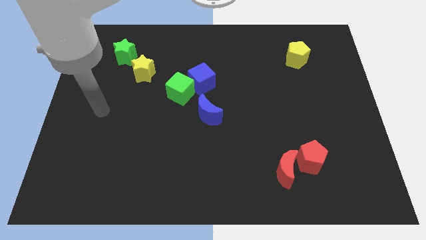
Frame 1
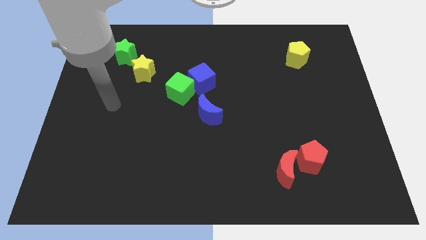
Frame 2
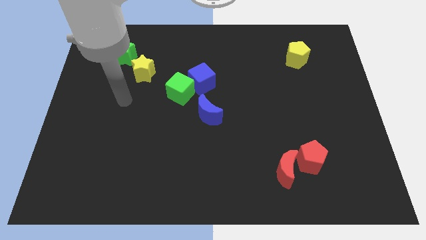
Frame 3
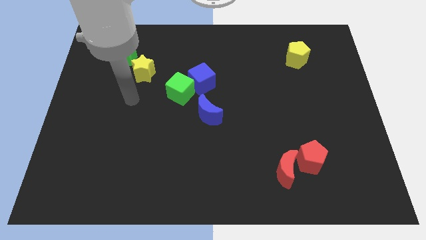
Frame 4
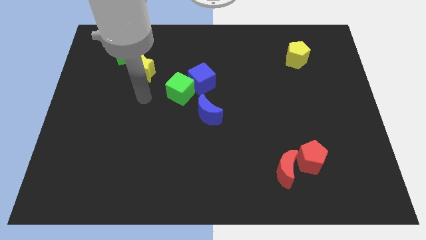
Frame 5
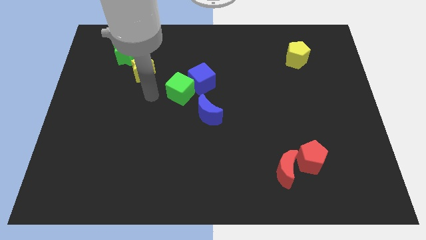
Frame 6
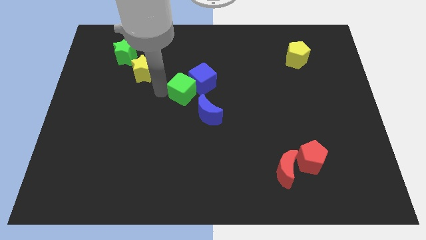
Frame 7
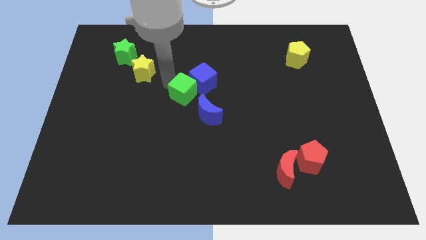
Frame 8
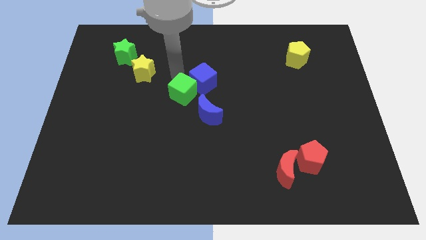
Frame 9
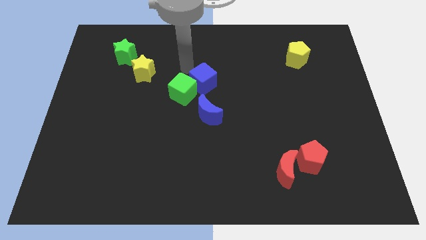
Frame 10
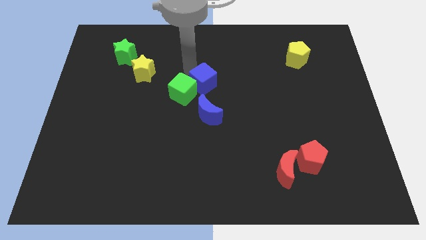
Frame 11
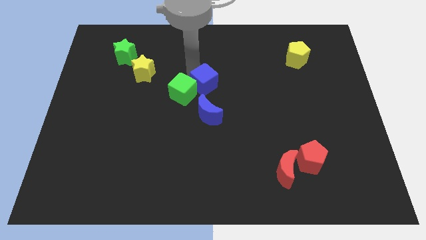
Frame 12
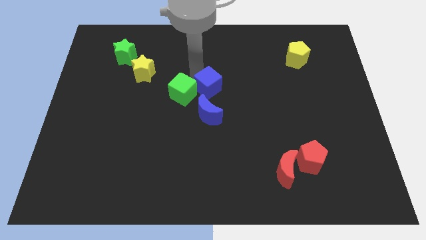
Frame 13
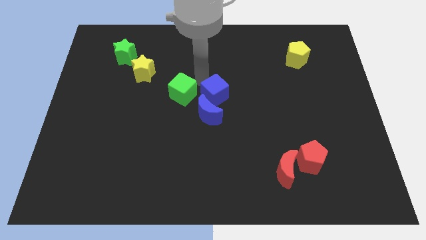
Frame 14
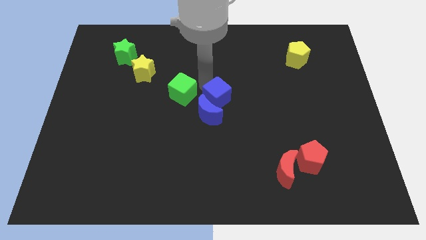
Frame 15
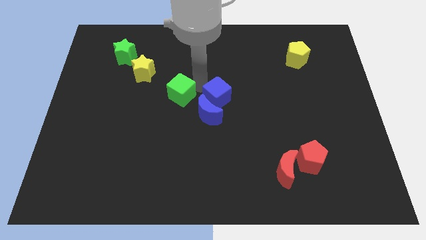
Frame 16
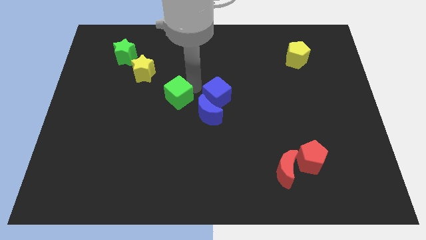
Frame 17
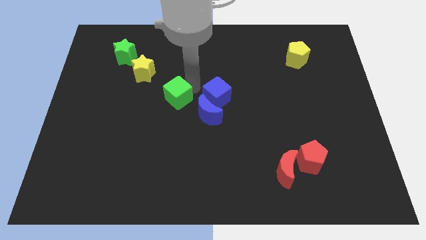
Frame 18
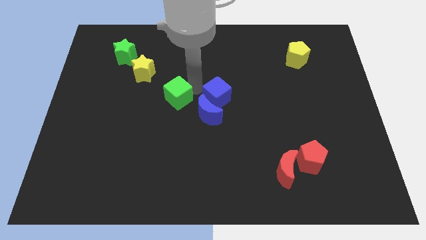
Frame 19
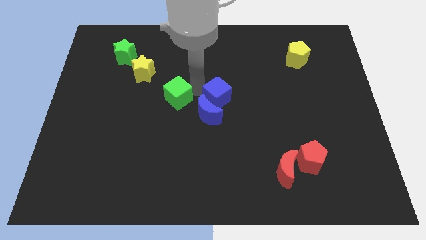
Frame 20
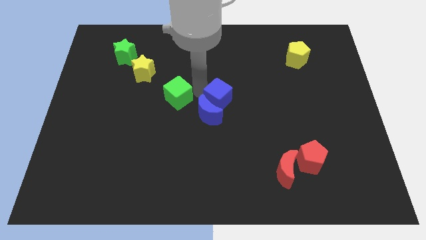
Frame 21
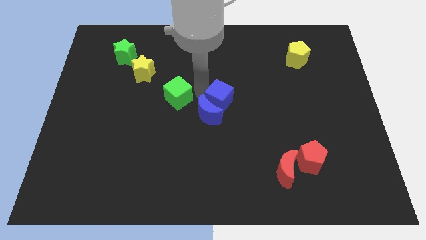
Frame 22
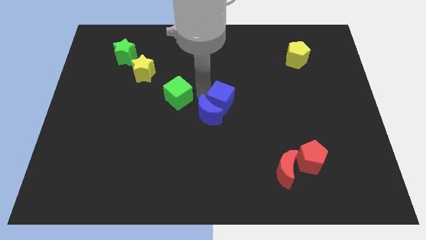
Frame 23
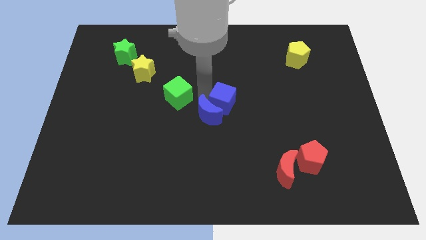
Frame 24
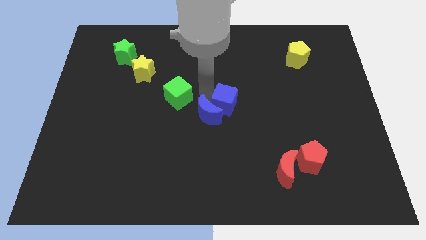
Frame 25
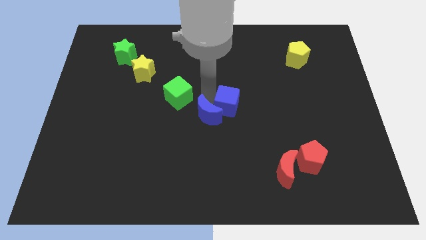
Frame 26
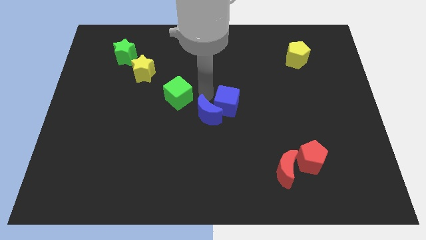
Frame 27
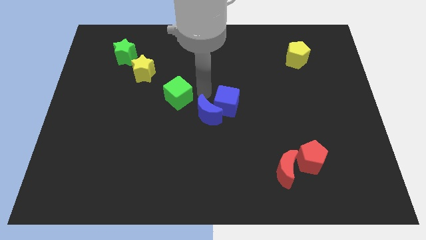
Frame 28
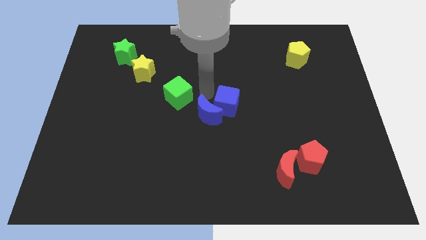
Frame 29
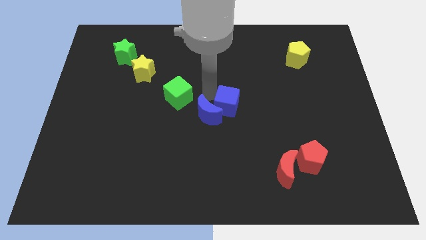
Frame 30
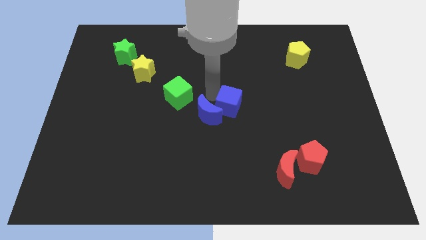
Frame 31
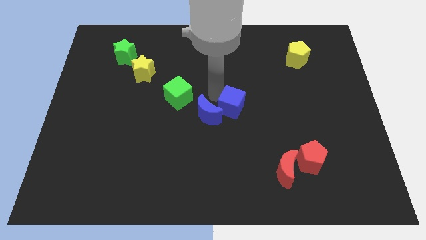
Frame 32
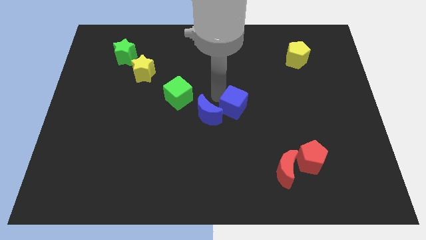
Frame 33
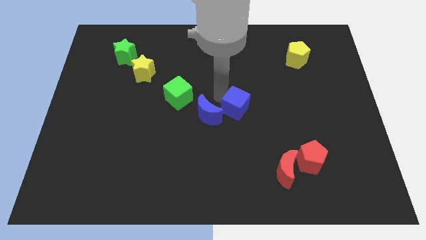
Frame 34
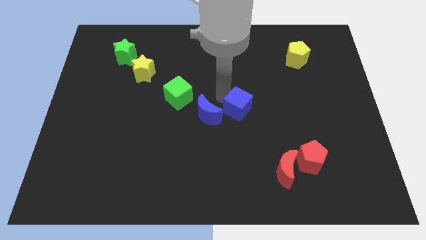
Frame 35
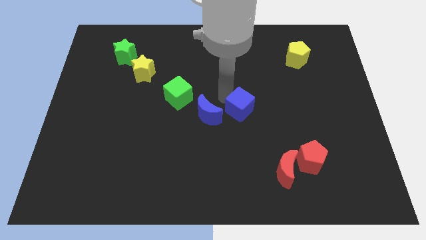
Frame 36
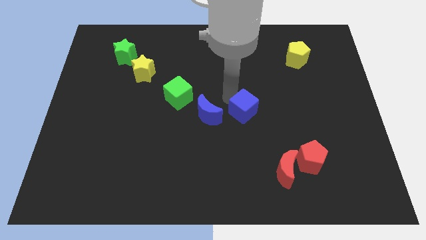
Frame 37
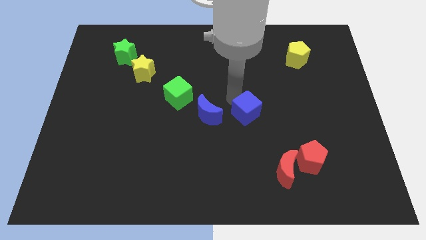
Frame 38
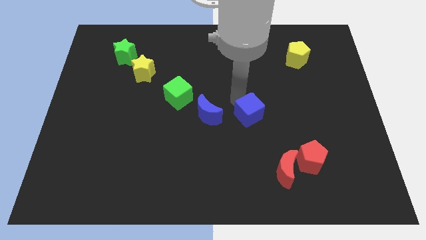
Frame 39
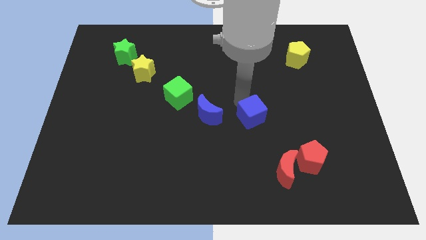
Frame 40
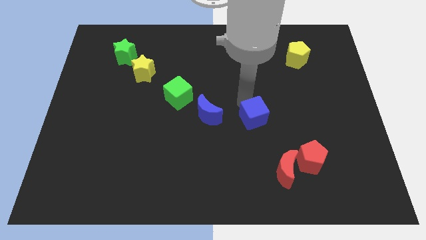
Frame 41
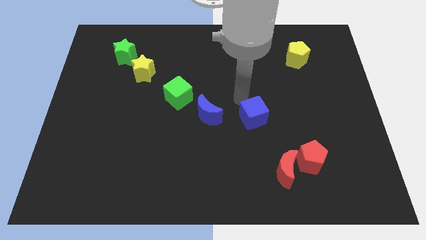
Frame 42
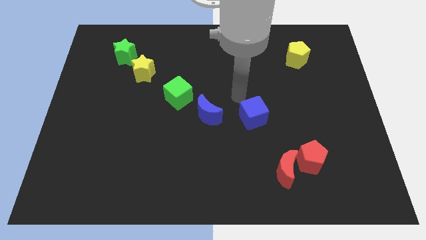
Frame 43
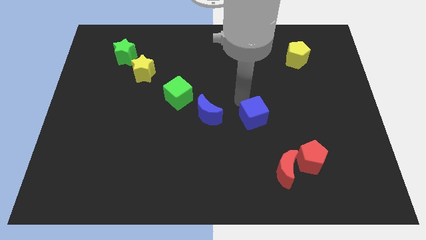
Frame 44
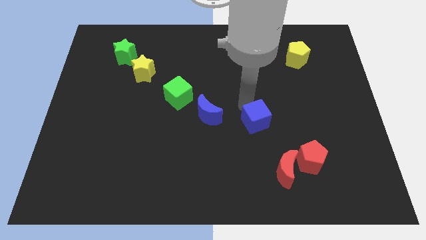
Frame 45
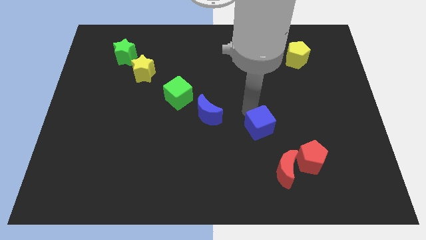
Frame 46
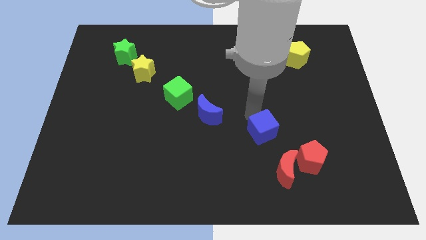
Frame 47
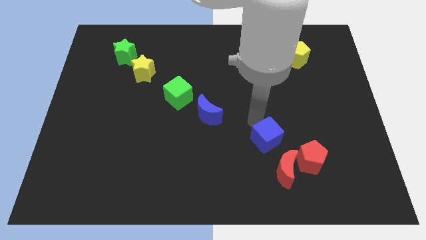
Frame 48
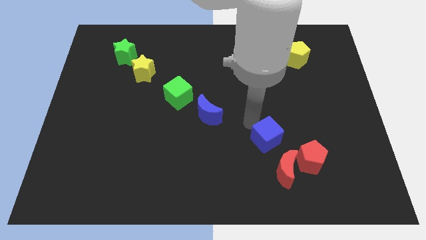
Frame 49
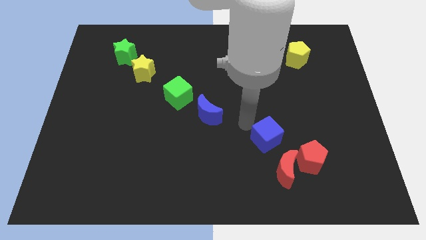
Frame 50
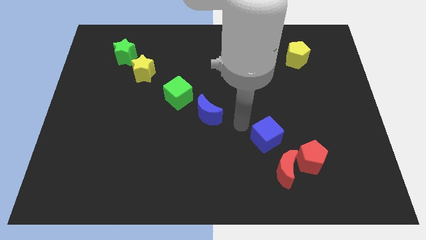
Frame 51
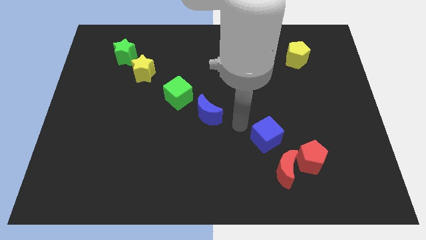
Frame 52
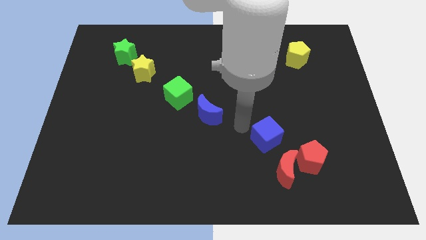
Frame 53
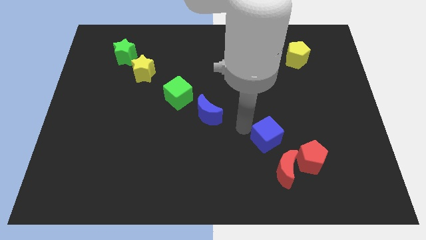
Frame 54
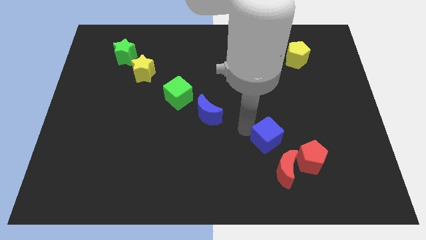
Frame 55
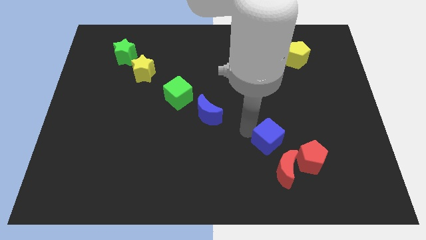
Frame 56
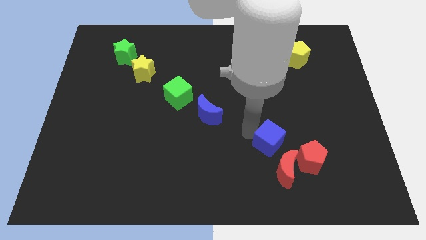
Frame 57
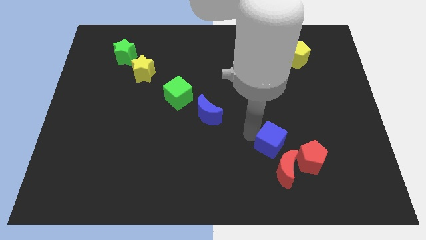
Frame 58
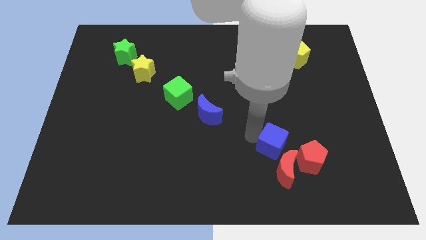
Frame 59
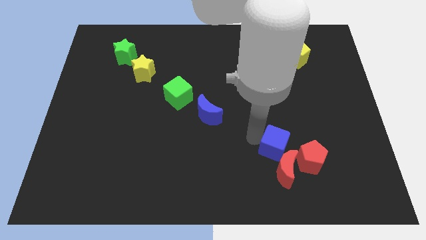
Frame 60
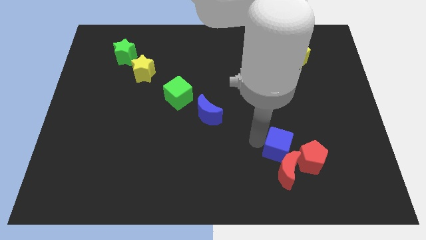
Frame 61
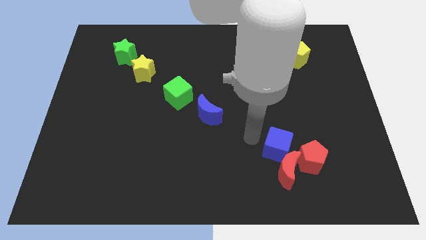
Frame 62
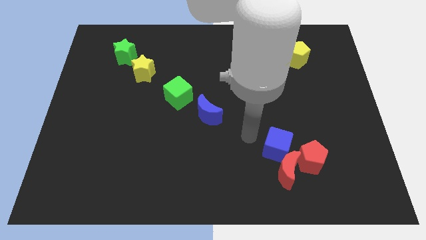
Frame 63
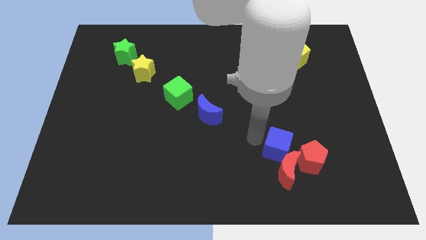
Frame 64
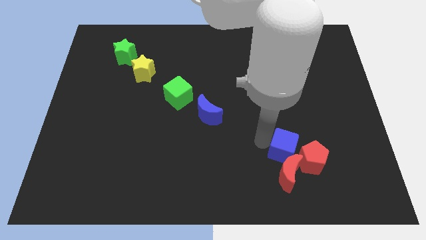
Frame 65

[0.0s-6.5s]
slide the blue cube towards the red pentagon

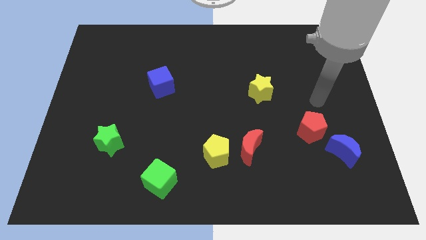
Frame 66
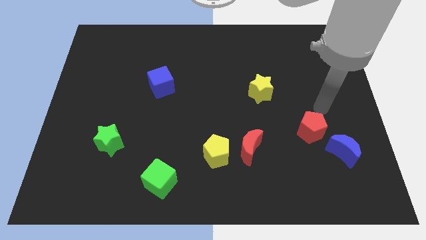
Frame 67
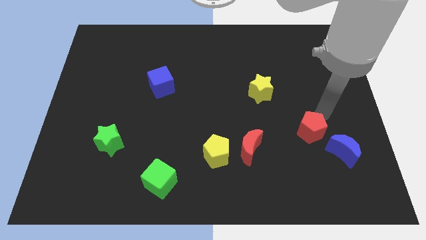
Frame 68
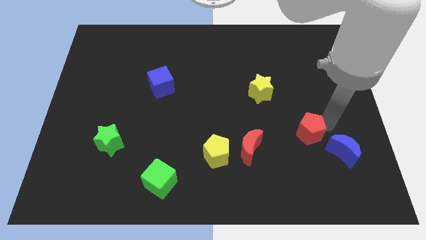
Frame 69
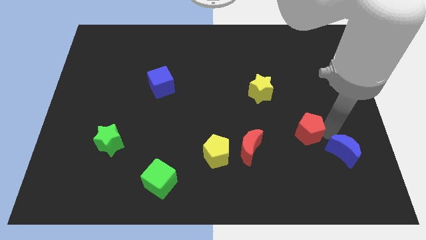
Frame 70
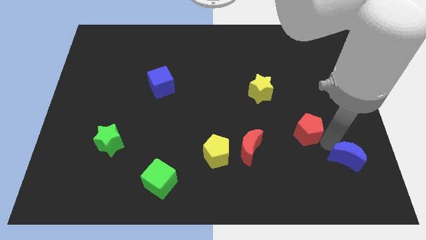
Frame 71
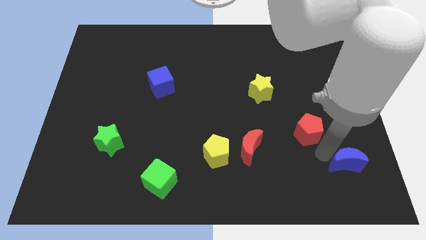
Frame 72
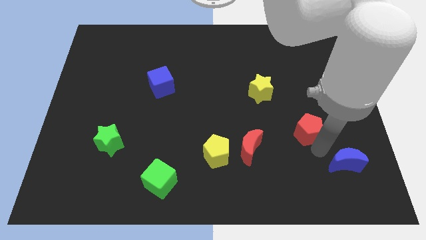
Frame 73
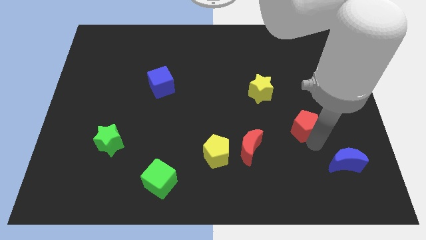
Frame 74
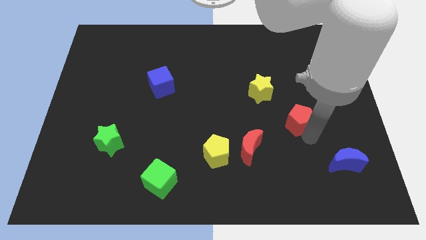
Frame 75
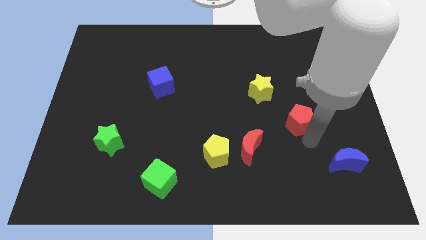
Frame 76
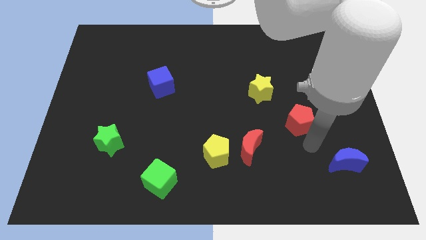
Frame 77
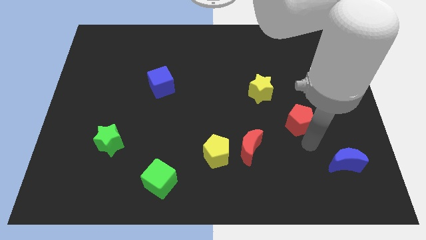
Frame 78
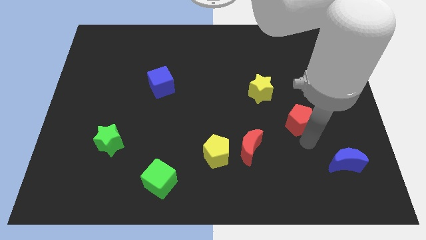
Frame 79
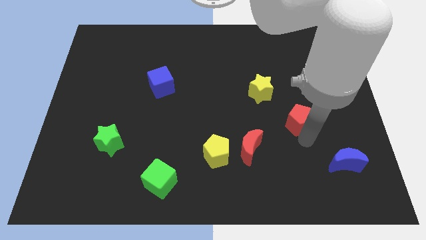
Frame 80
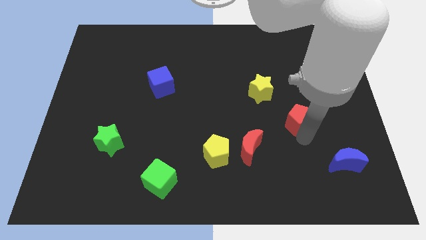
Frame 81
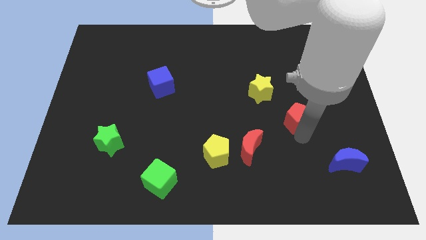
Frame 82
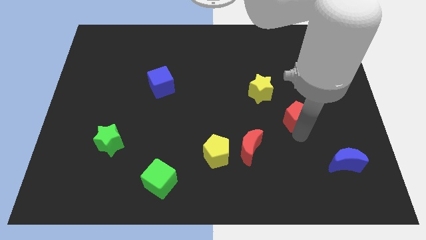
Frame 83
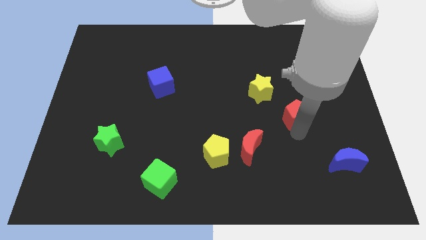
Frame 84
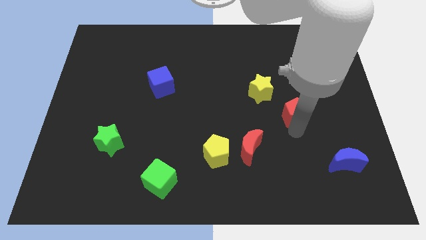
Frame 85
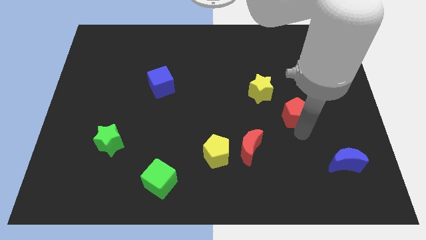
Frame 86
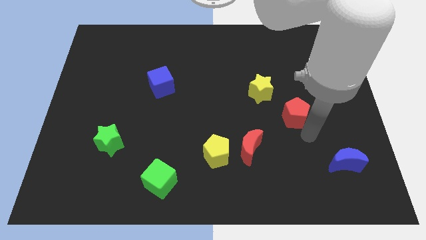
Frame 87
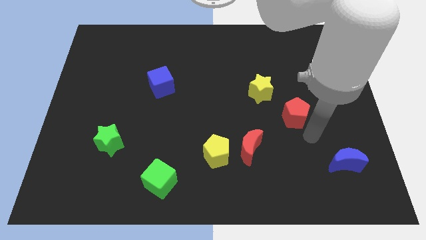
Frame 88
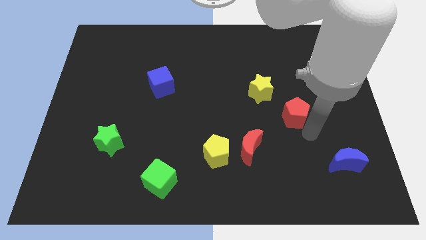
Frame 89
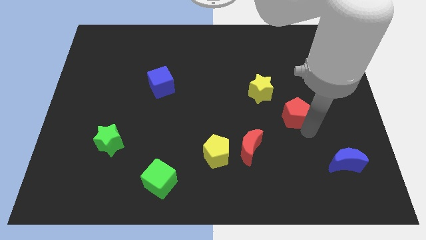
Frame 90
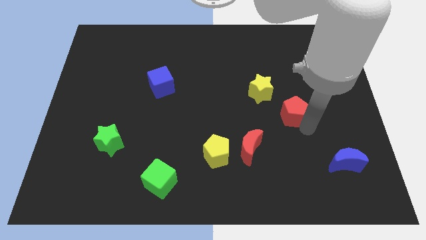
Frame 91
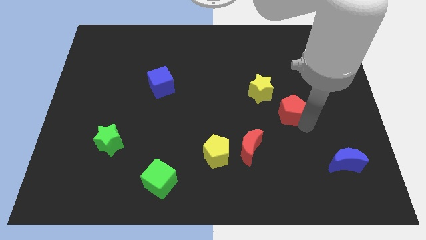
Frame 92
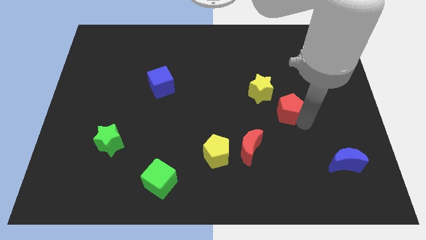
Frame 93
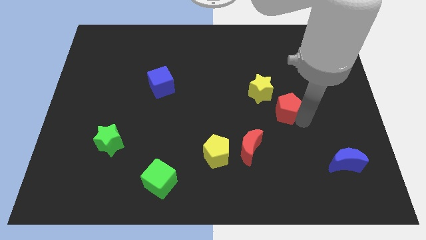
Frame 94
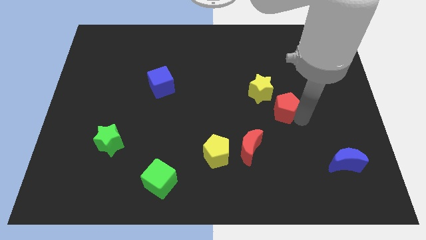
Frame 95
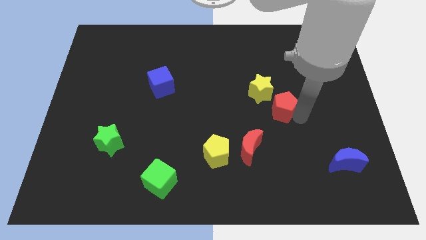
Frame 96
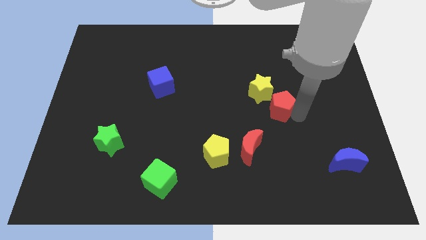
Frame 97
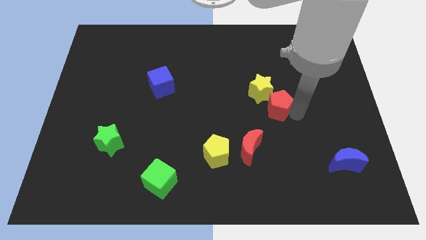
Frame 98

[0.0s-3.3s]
move the red pentagon towards the yellow star
